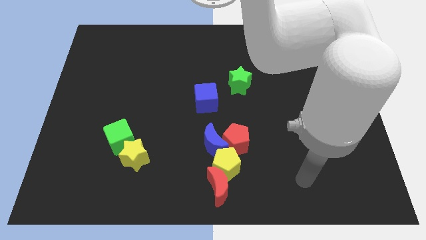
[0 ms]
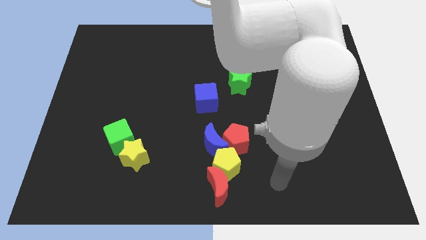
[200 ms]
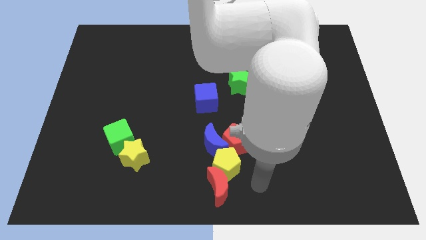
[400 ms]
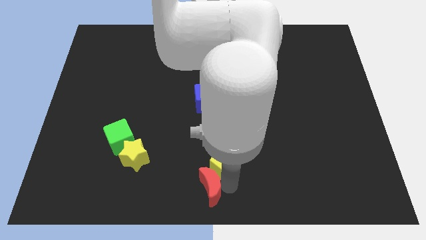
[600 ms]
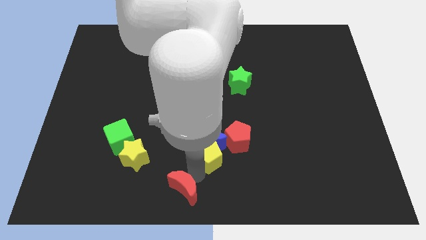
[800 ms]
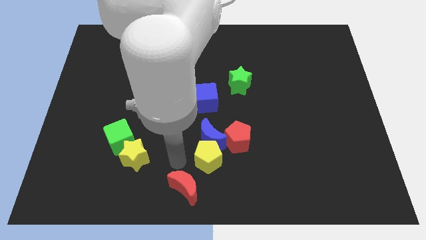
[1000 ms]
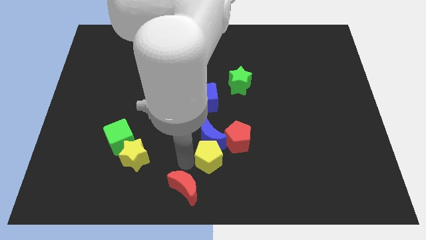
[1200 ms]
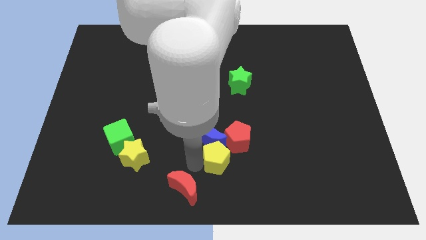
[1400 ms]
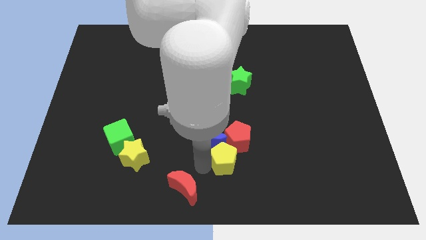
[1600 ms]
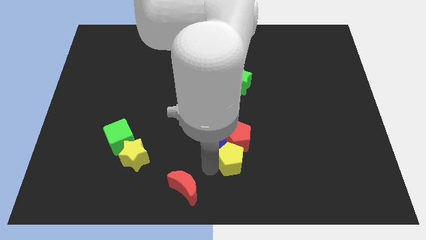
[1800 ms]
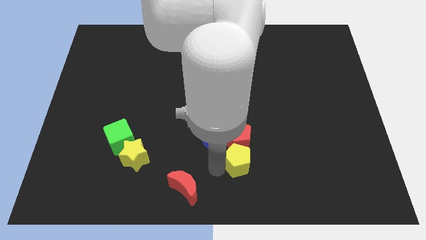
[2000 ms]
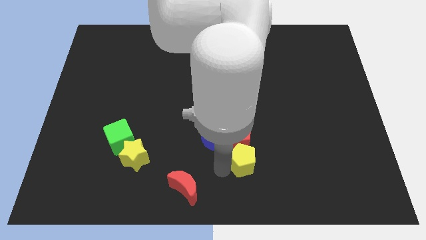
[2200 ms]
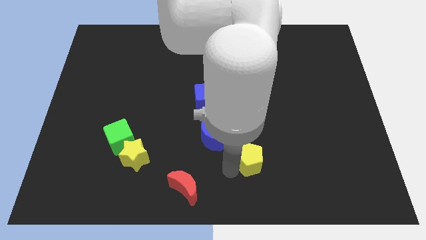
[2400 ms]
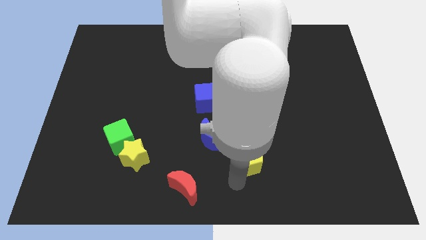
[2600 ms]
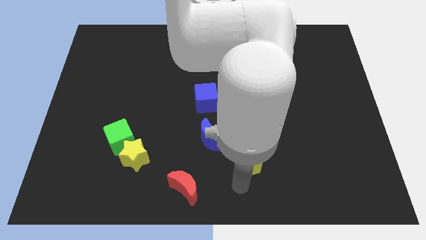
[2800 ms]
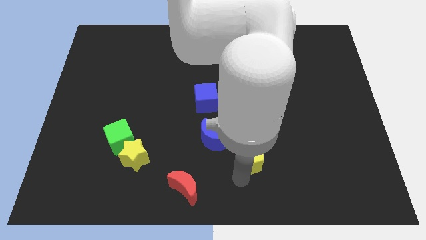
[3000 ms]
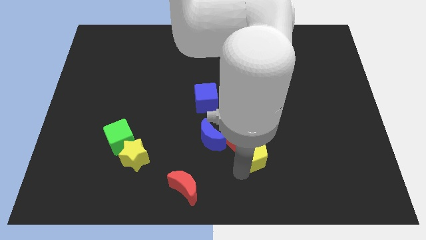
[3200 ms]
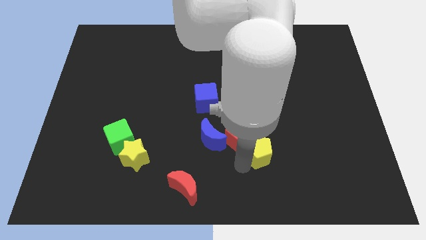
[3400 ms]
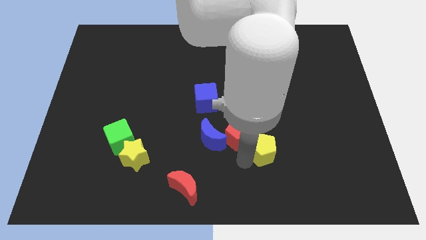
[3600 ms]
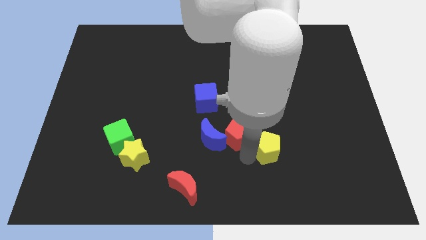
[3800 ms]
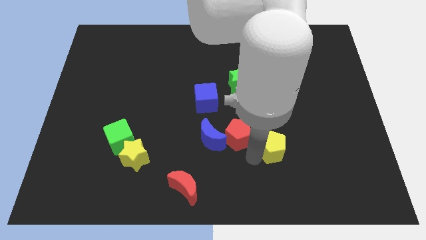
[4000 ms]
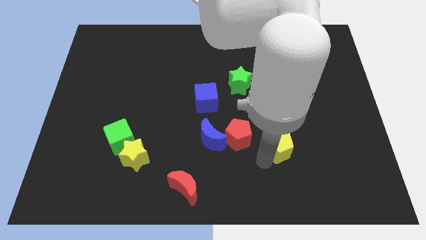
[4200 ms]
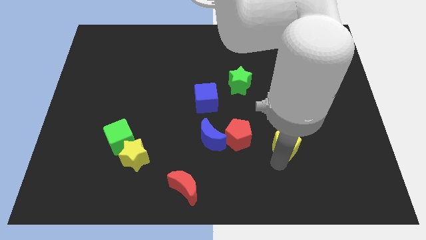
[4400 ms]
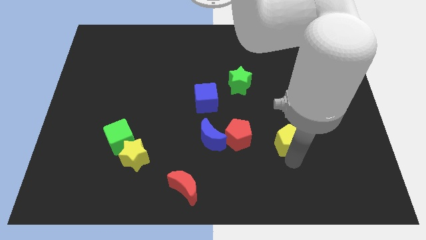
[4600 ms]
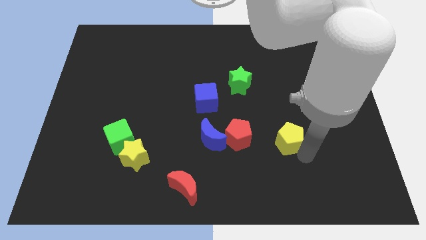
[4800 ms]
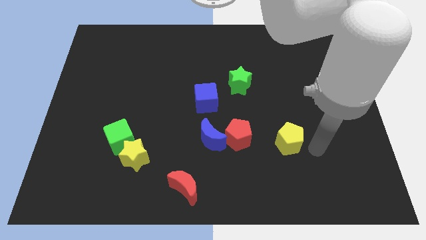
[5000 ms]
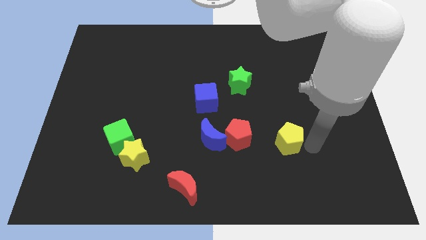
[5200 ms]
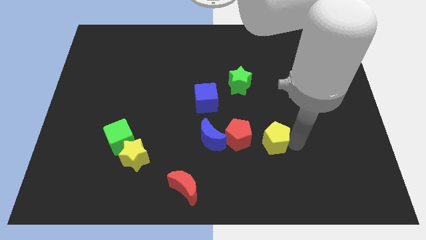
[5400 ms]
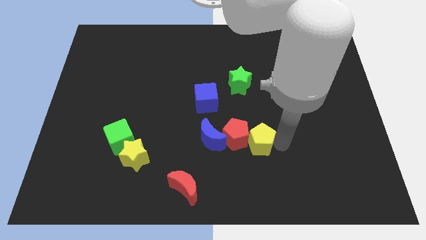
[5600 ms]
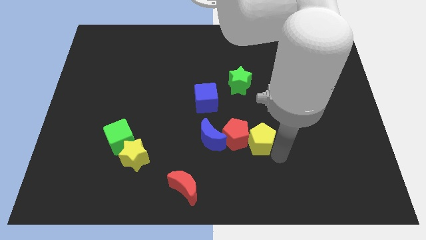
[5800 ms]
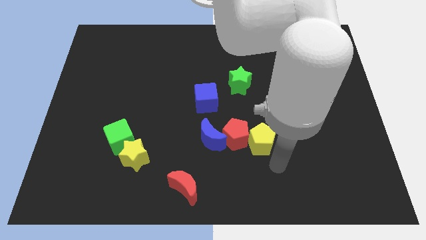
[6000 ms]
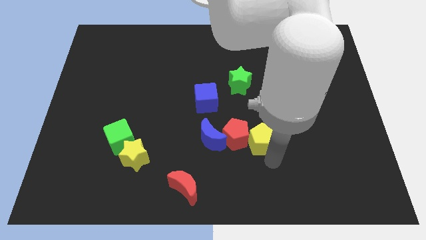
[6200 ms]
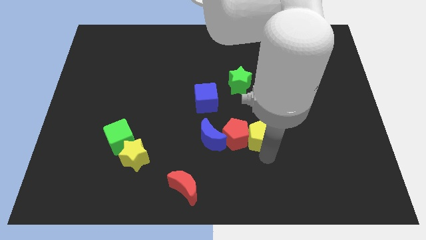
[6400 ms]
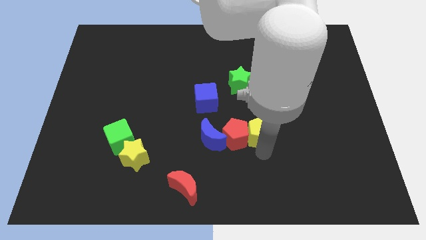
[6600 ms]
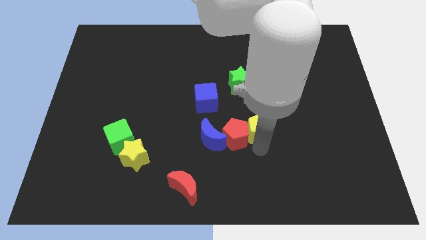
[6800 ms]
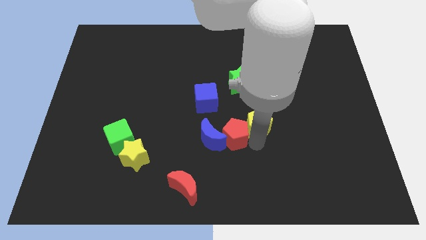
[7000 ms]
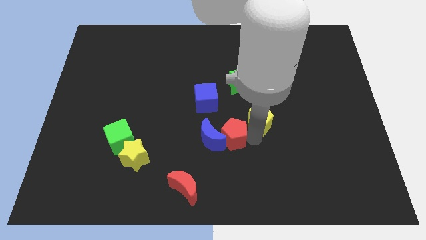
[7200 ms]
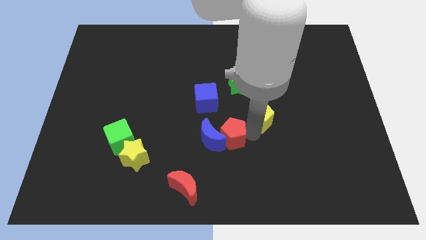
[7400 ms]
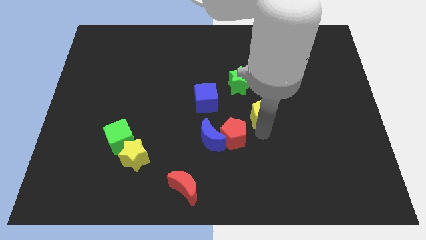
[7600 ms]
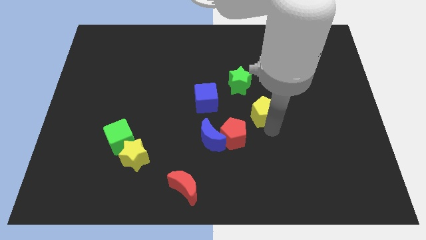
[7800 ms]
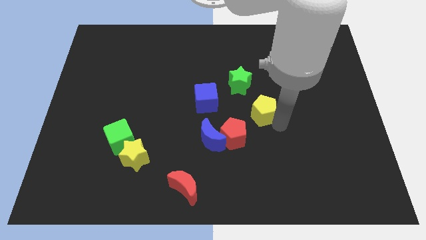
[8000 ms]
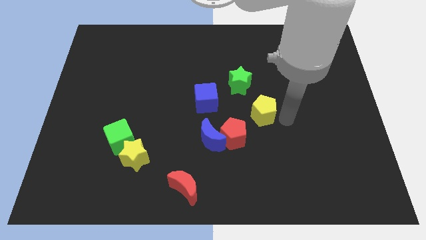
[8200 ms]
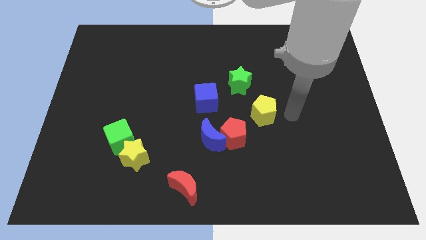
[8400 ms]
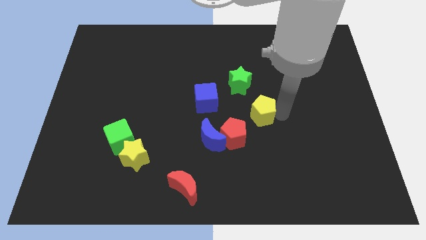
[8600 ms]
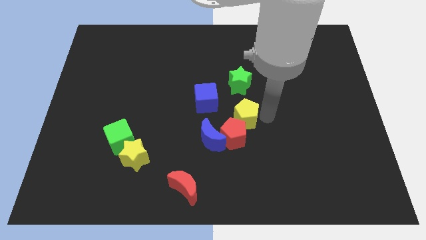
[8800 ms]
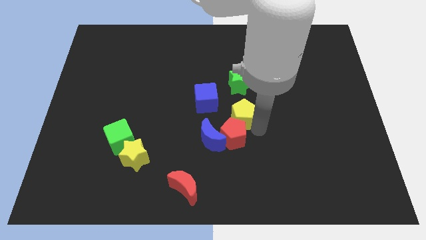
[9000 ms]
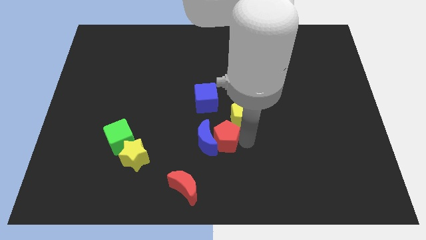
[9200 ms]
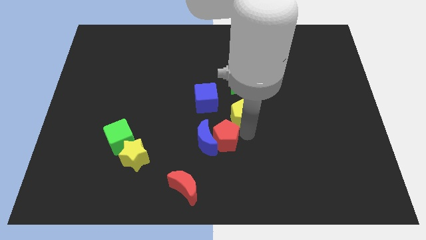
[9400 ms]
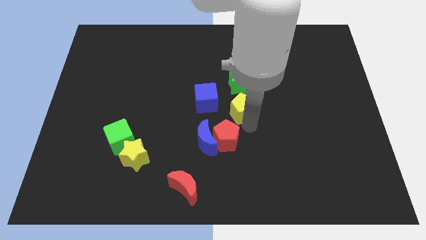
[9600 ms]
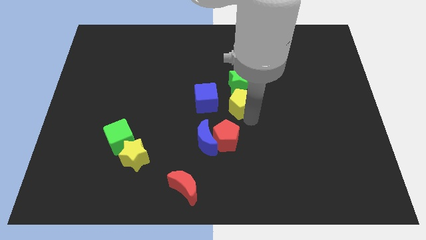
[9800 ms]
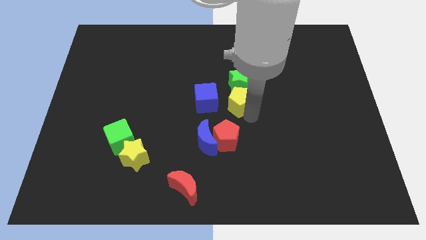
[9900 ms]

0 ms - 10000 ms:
push the yellow pentagon close to the green star

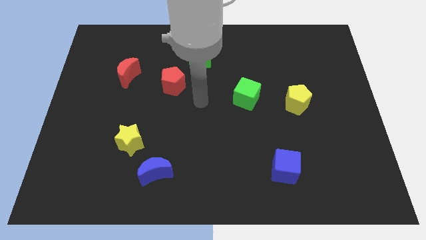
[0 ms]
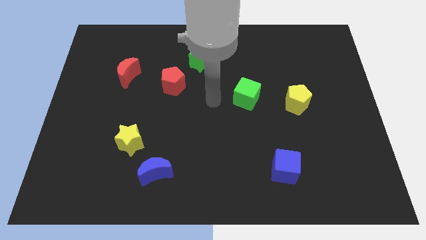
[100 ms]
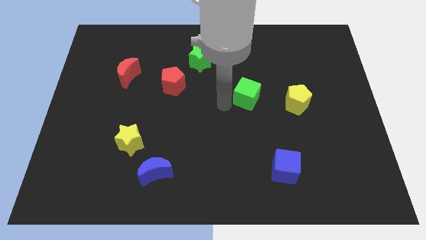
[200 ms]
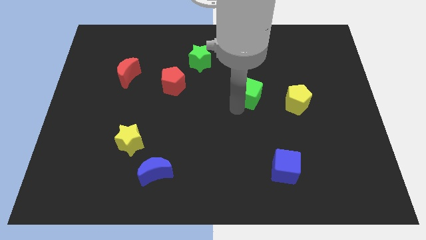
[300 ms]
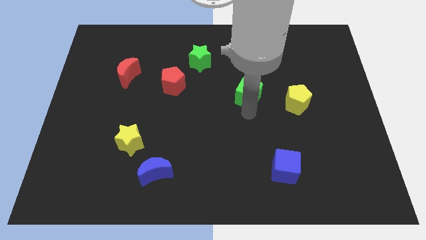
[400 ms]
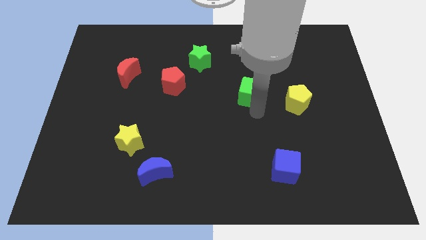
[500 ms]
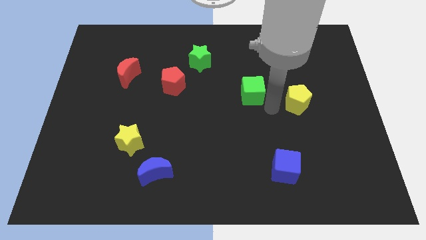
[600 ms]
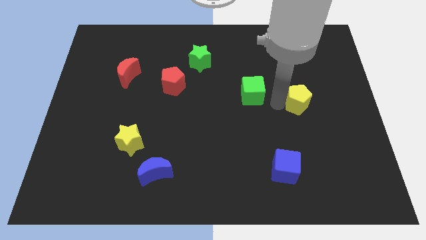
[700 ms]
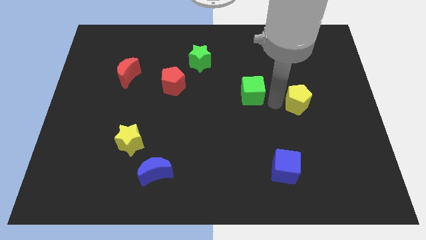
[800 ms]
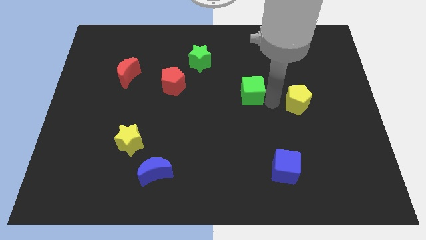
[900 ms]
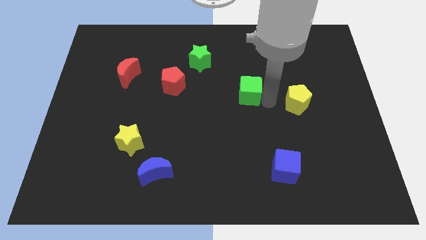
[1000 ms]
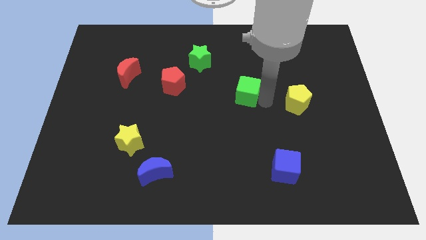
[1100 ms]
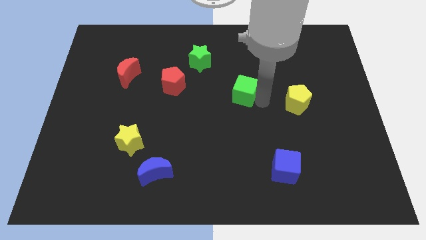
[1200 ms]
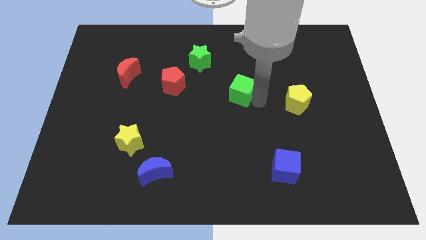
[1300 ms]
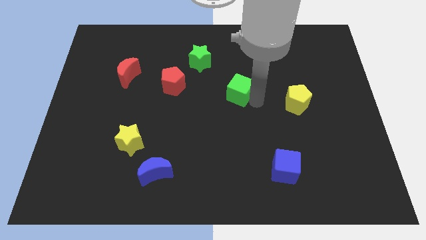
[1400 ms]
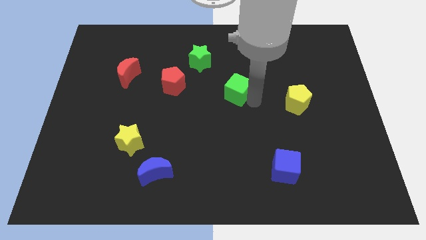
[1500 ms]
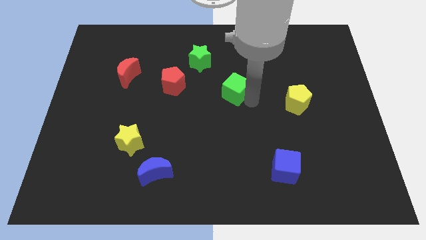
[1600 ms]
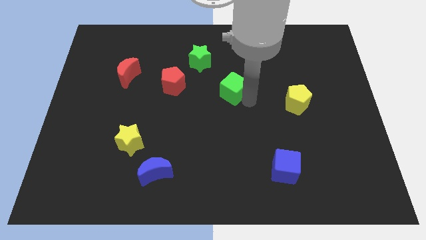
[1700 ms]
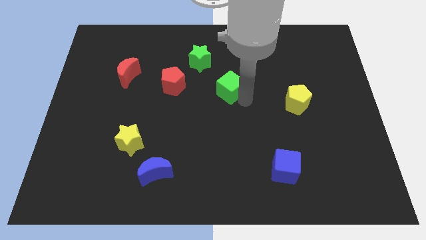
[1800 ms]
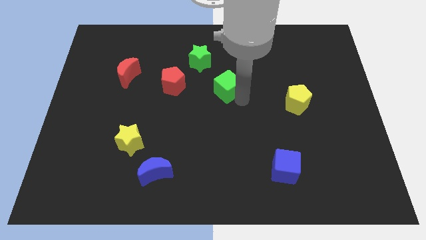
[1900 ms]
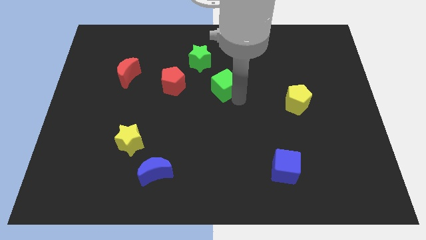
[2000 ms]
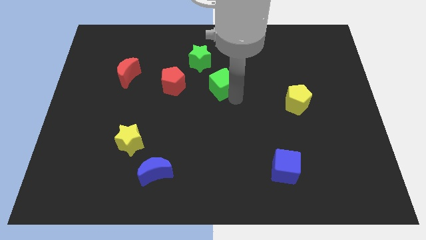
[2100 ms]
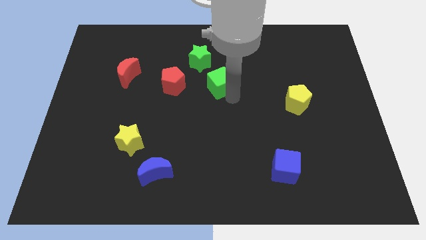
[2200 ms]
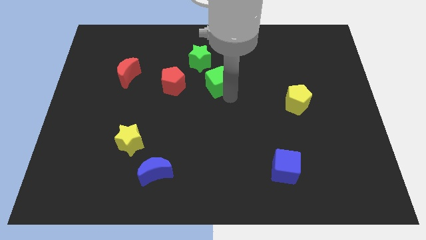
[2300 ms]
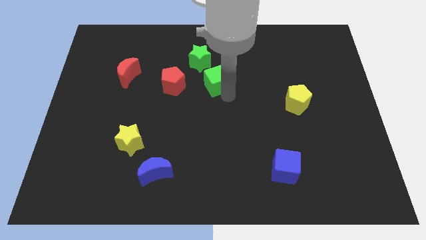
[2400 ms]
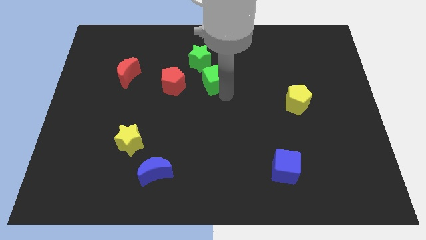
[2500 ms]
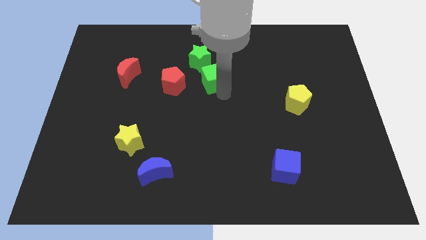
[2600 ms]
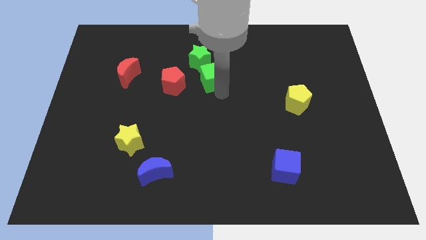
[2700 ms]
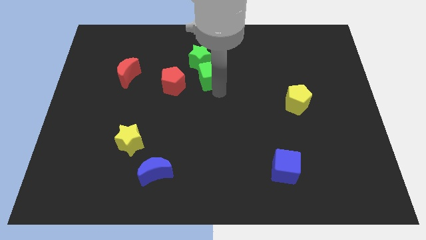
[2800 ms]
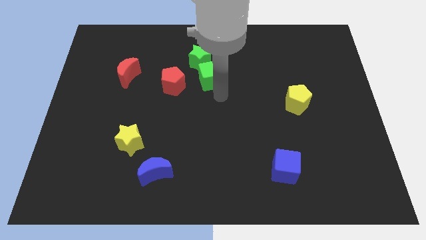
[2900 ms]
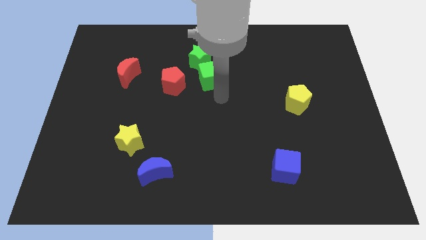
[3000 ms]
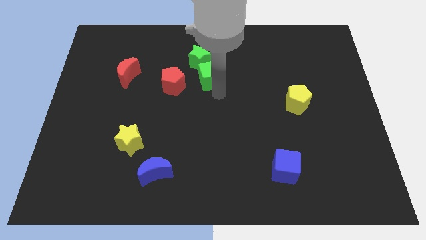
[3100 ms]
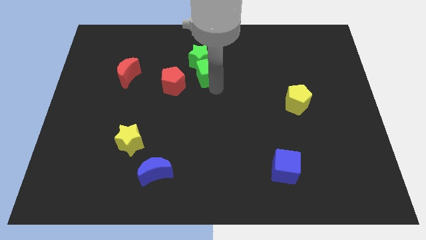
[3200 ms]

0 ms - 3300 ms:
slide the green cube close to the green star
